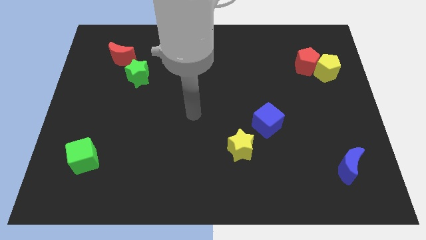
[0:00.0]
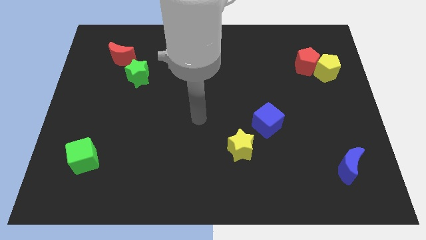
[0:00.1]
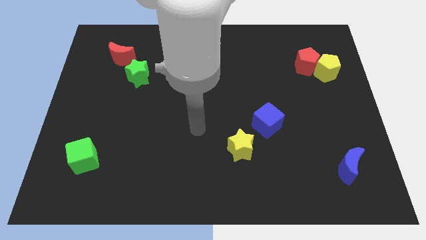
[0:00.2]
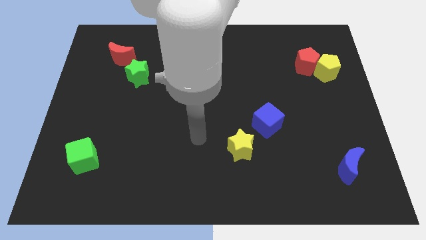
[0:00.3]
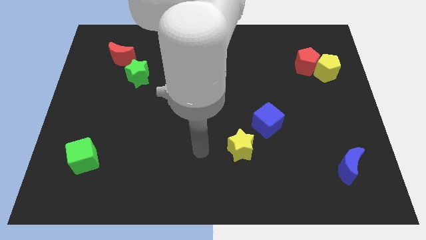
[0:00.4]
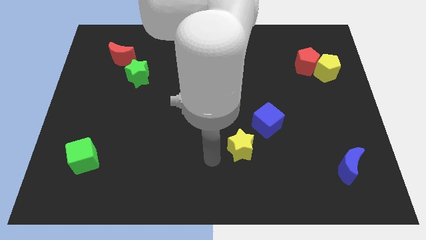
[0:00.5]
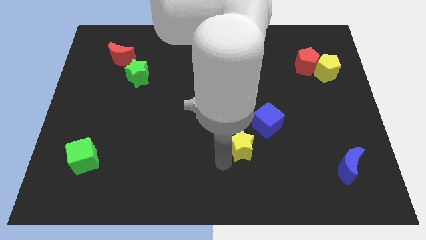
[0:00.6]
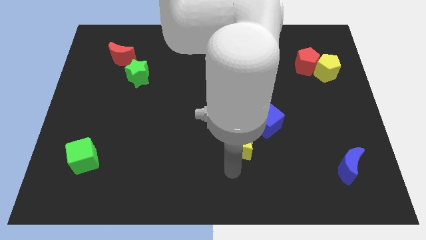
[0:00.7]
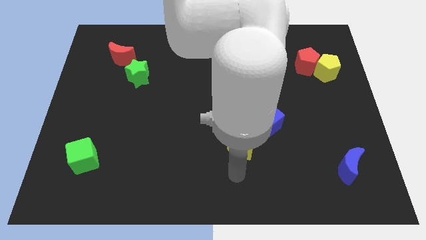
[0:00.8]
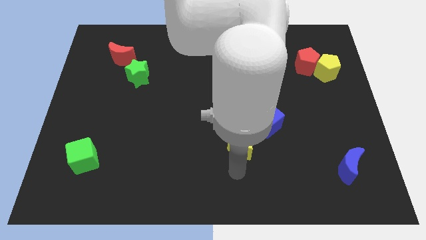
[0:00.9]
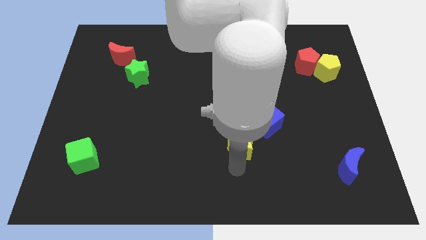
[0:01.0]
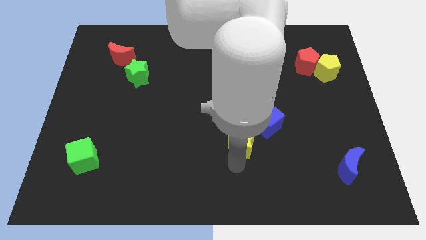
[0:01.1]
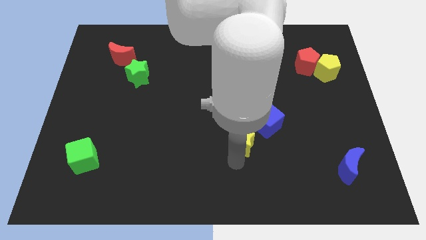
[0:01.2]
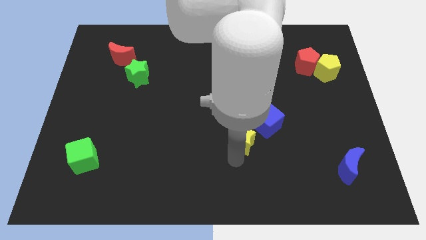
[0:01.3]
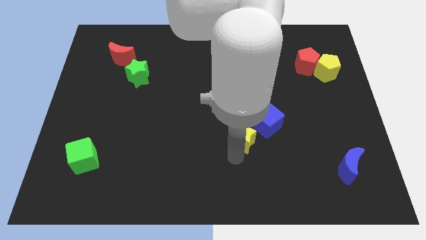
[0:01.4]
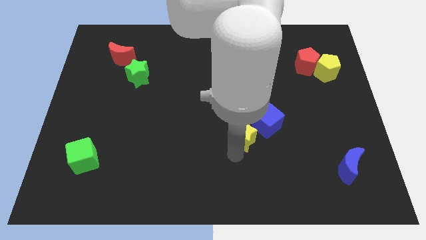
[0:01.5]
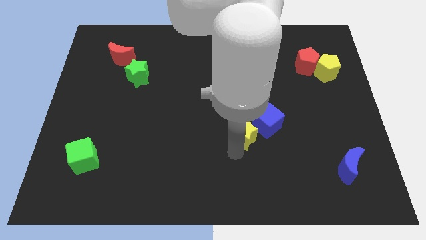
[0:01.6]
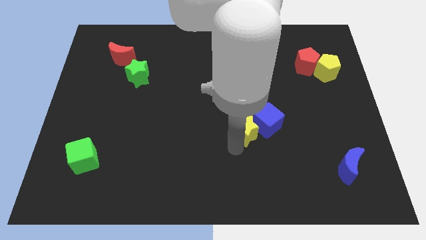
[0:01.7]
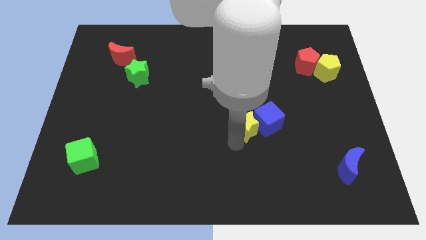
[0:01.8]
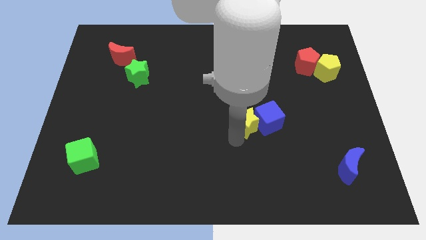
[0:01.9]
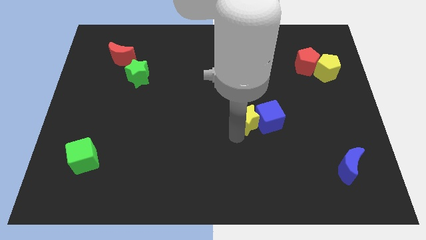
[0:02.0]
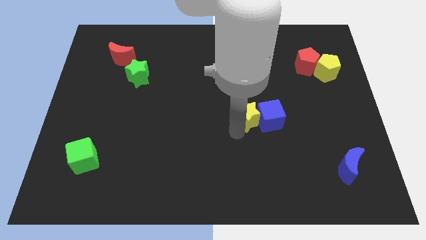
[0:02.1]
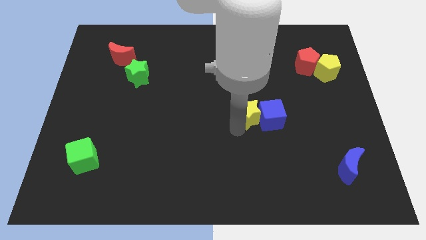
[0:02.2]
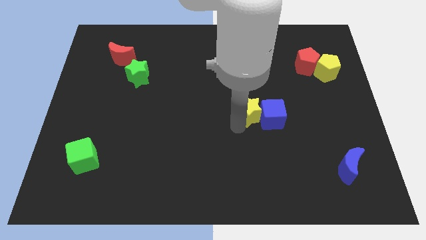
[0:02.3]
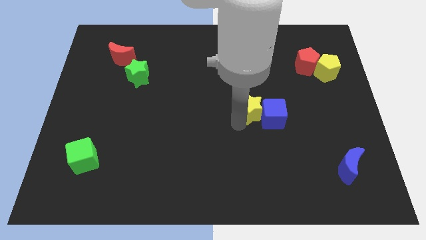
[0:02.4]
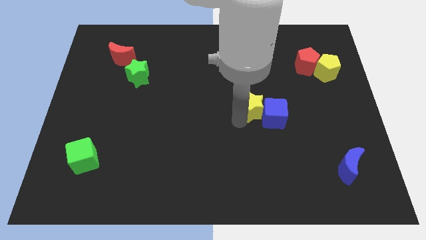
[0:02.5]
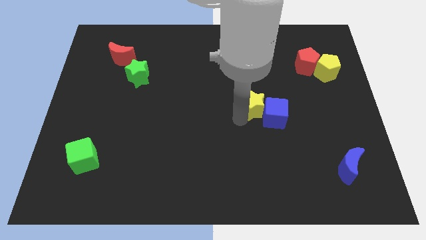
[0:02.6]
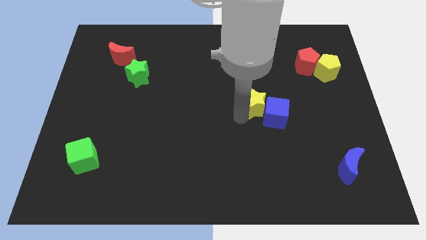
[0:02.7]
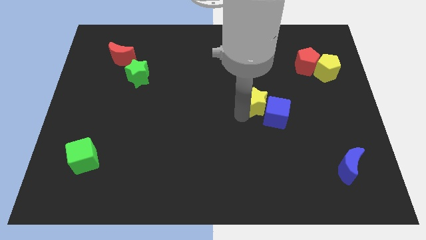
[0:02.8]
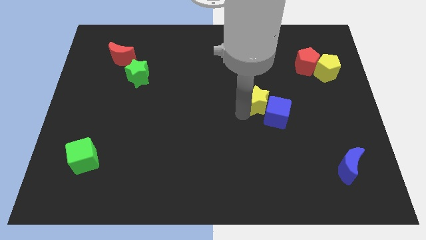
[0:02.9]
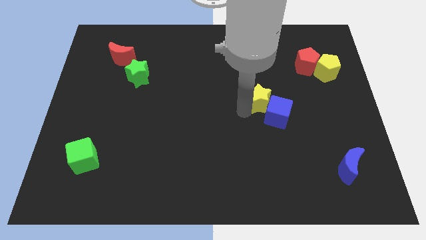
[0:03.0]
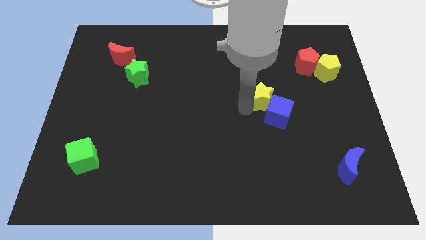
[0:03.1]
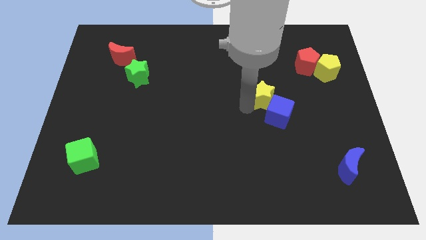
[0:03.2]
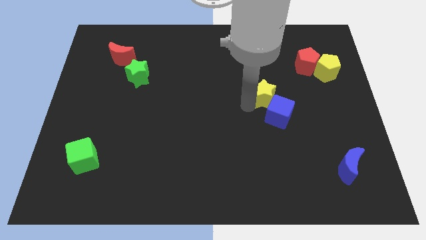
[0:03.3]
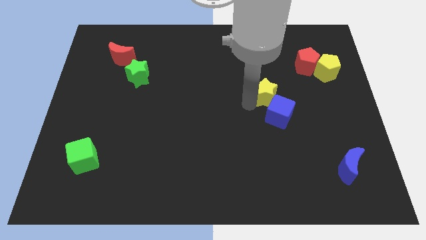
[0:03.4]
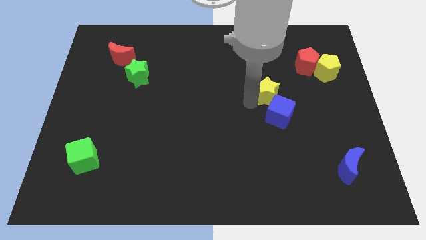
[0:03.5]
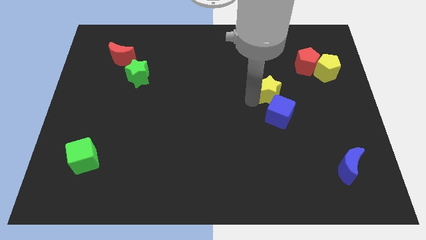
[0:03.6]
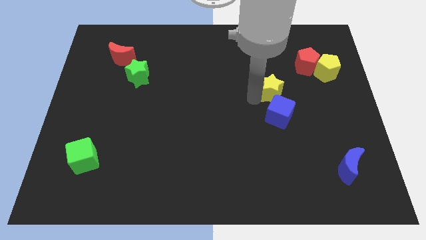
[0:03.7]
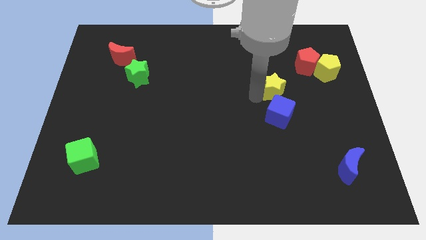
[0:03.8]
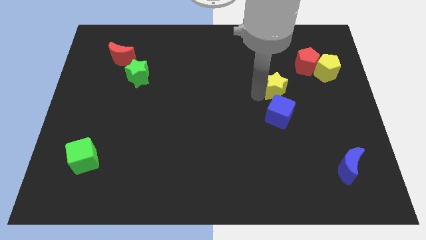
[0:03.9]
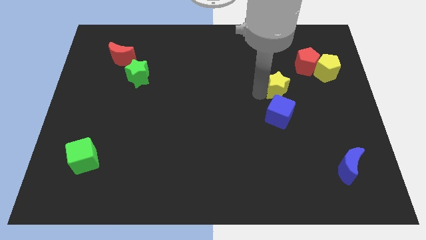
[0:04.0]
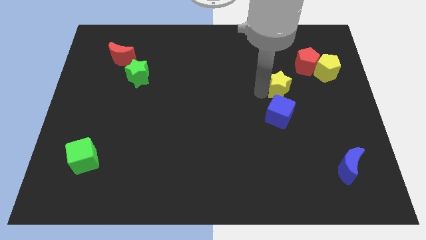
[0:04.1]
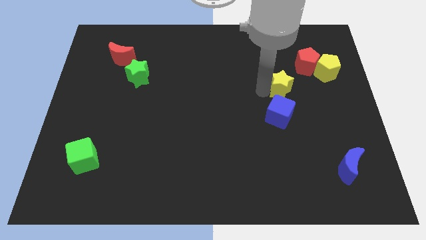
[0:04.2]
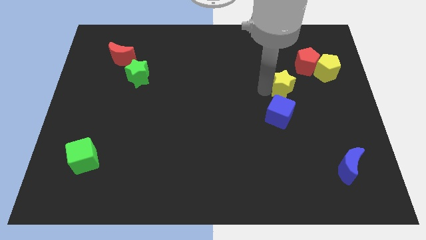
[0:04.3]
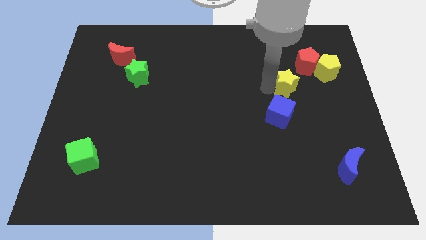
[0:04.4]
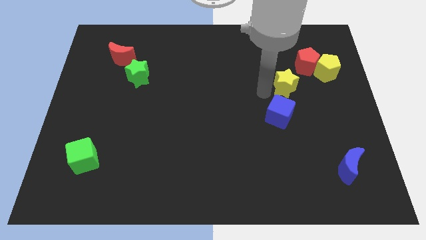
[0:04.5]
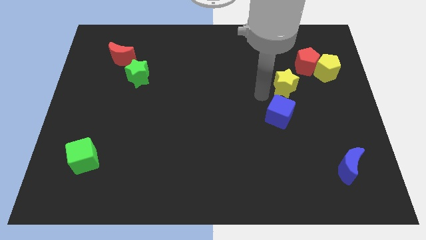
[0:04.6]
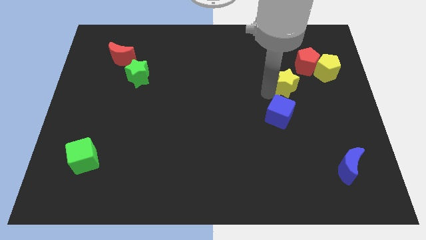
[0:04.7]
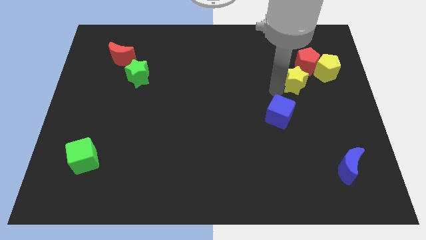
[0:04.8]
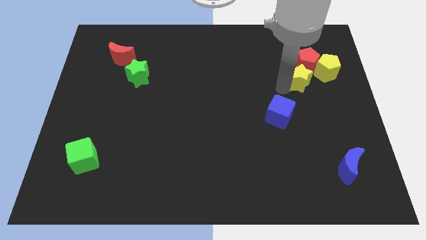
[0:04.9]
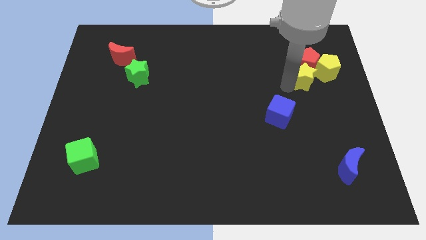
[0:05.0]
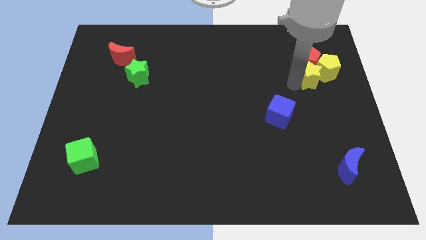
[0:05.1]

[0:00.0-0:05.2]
move the yellow star close to the yellow pentagon

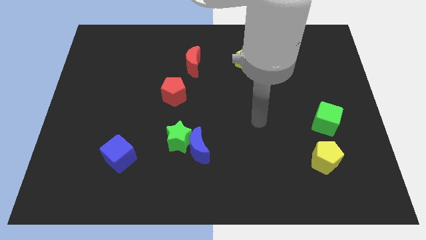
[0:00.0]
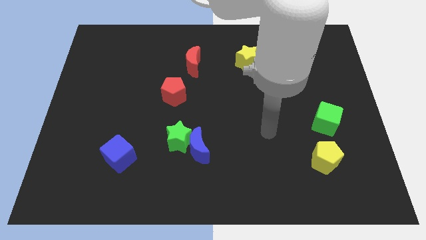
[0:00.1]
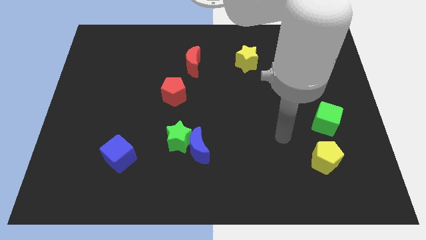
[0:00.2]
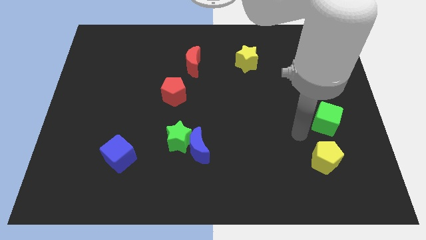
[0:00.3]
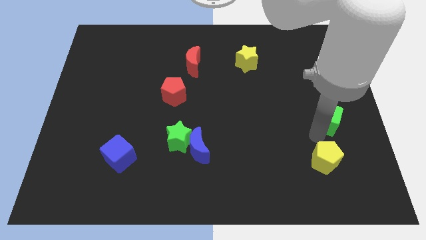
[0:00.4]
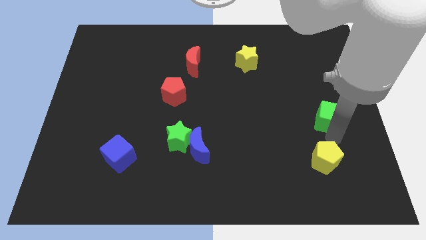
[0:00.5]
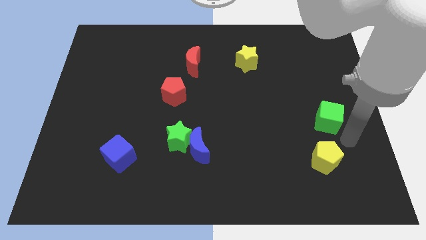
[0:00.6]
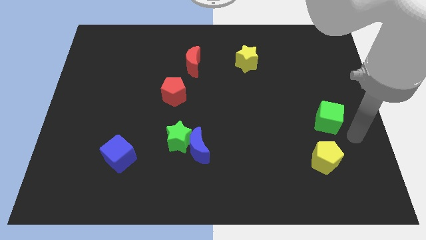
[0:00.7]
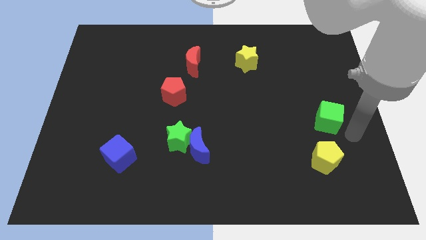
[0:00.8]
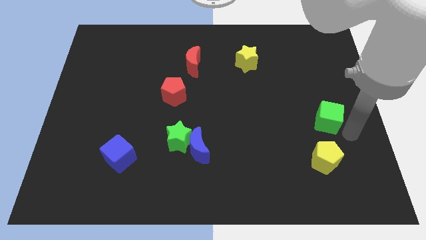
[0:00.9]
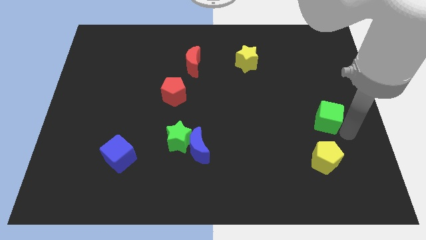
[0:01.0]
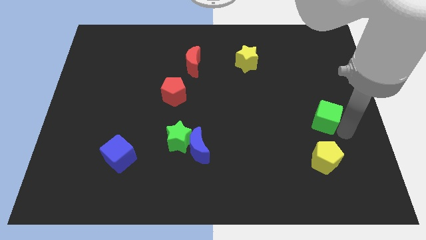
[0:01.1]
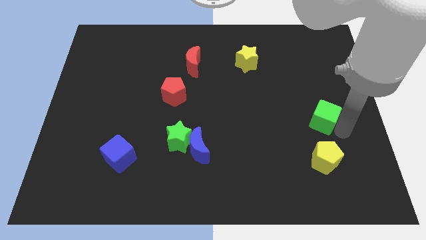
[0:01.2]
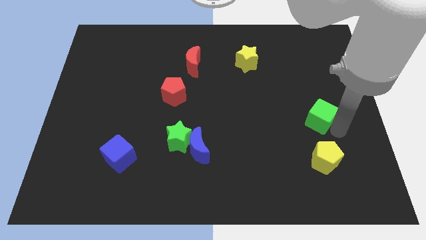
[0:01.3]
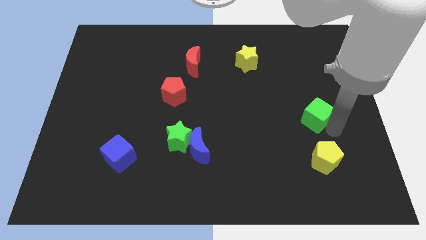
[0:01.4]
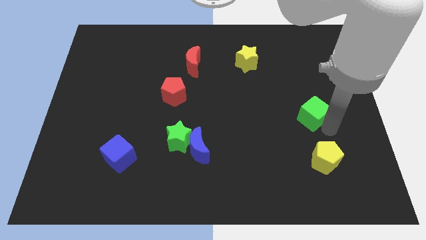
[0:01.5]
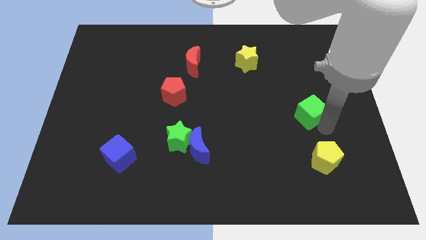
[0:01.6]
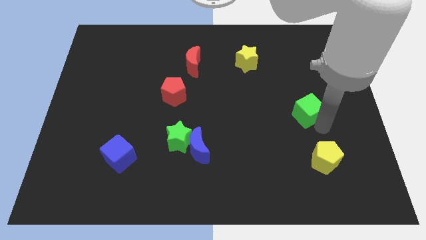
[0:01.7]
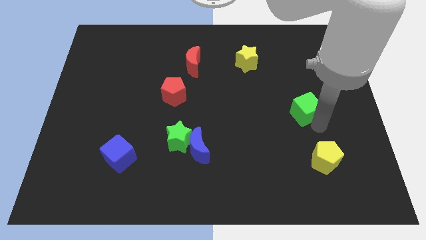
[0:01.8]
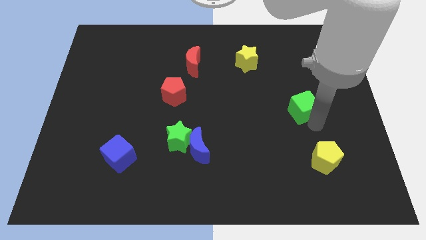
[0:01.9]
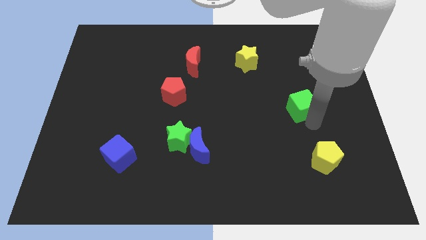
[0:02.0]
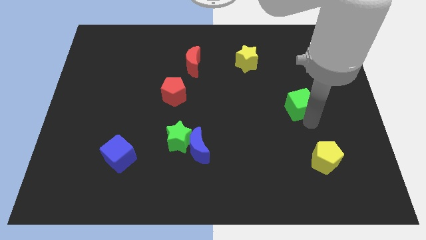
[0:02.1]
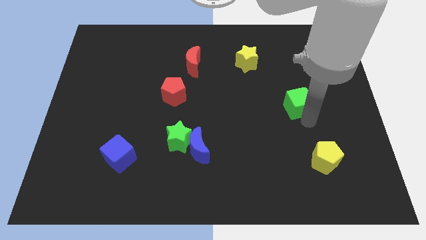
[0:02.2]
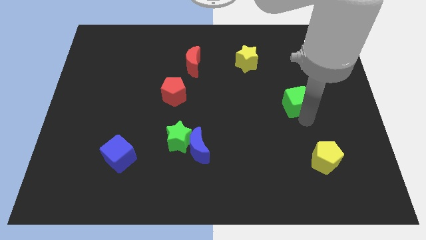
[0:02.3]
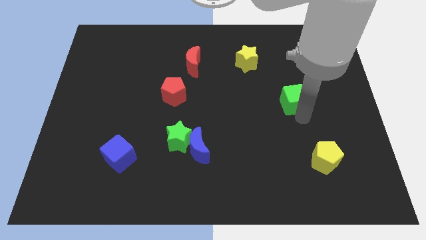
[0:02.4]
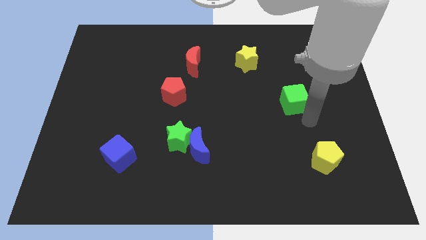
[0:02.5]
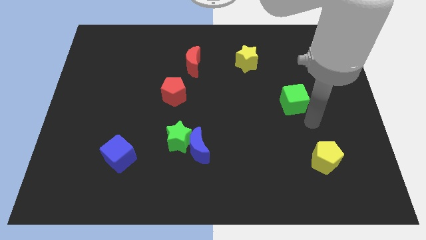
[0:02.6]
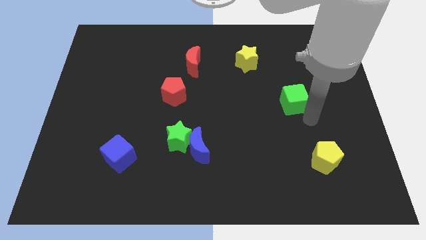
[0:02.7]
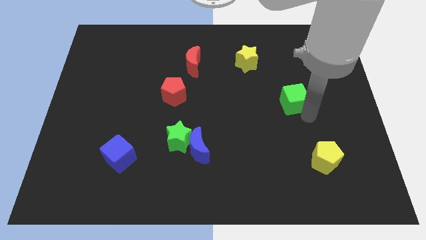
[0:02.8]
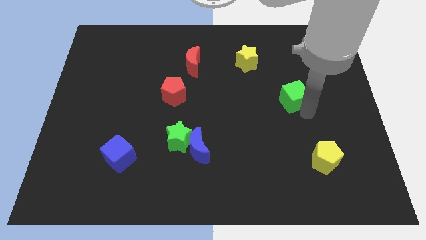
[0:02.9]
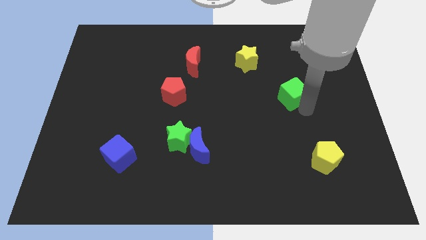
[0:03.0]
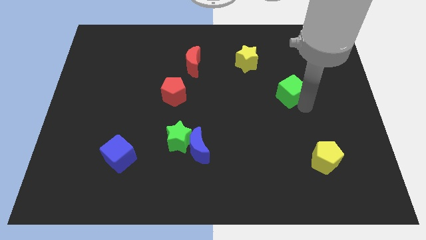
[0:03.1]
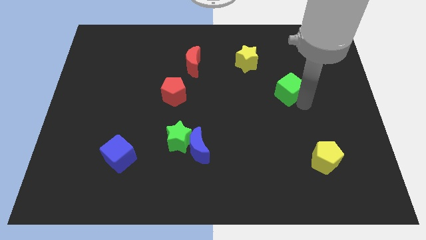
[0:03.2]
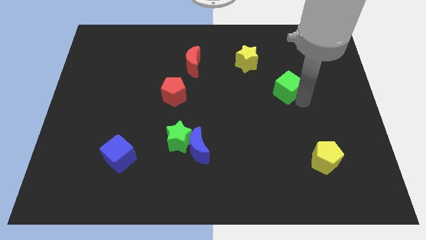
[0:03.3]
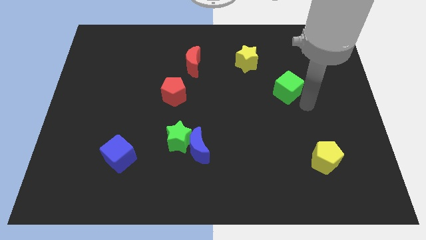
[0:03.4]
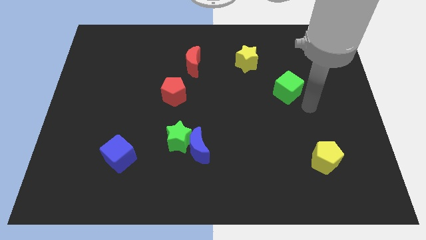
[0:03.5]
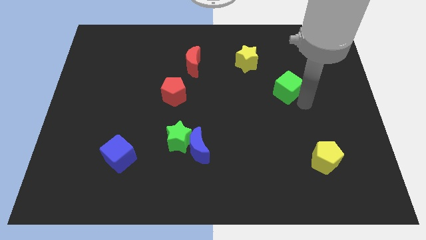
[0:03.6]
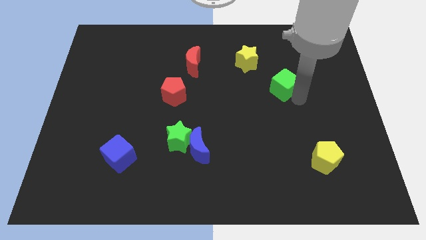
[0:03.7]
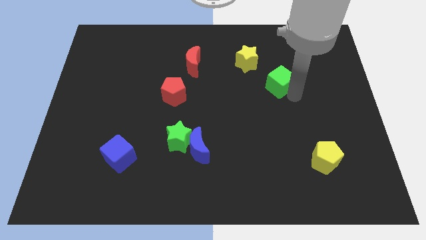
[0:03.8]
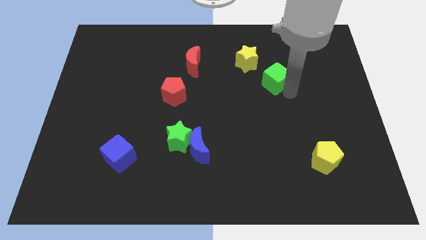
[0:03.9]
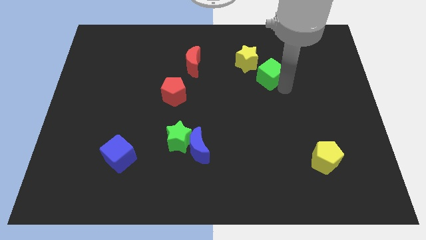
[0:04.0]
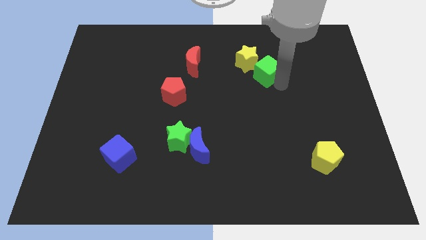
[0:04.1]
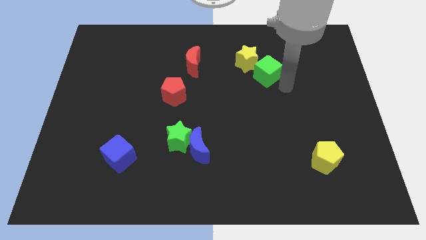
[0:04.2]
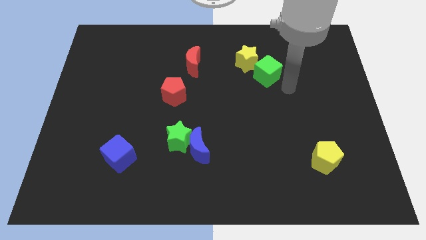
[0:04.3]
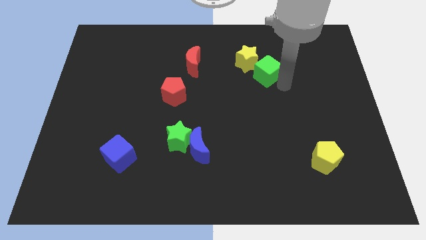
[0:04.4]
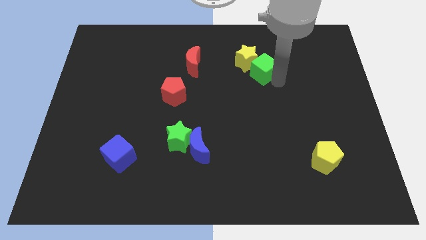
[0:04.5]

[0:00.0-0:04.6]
slide the green cube next to the yellow star
